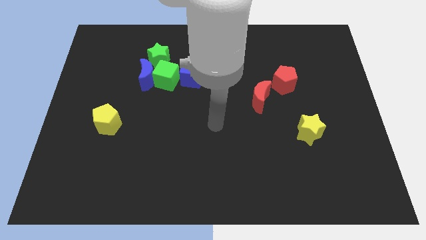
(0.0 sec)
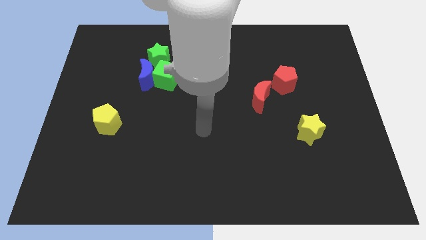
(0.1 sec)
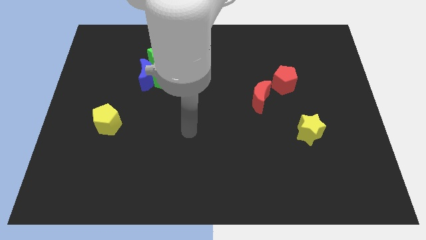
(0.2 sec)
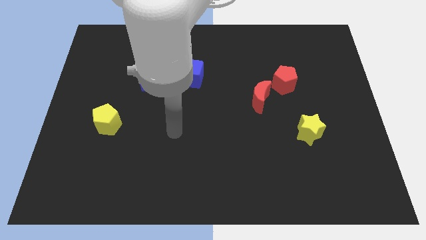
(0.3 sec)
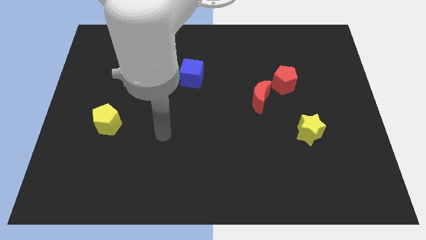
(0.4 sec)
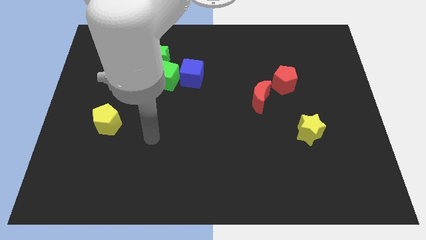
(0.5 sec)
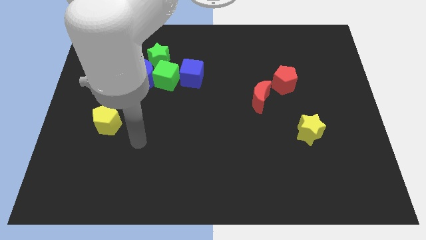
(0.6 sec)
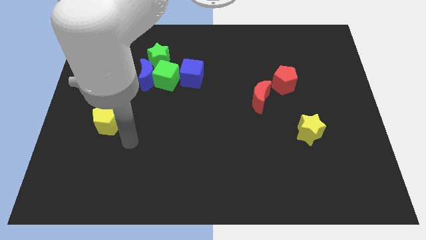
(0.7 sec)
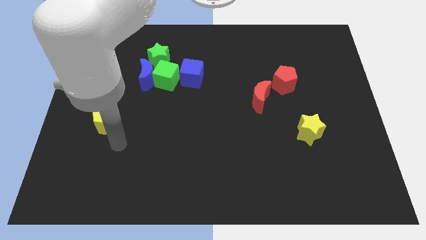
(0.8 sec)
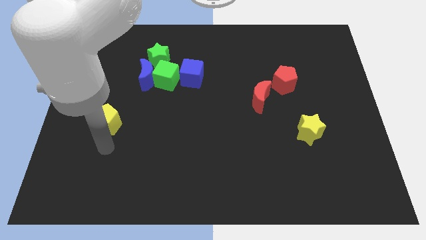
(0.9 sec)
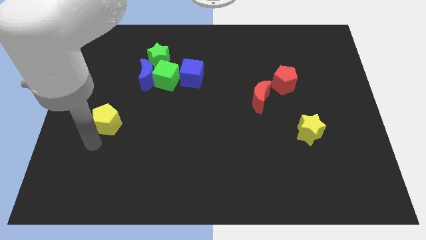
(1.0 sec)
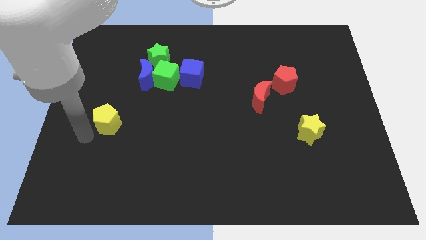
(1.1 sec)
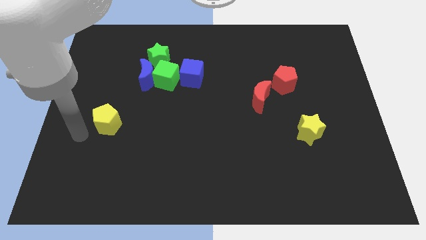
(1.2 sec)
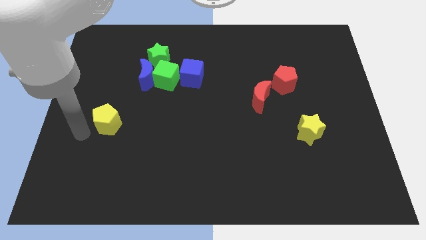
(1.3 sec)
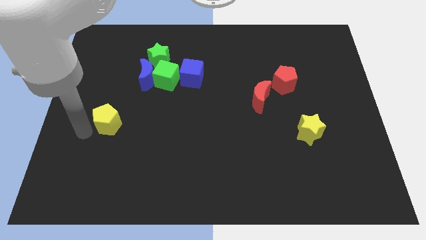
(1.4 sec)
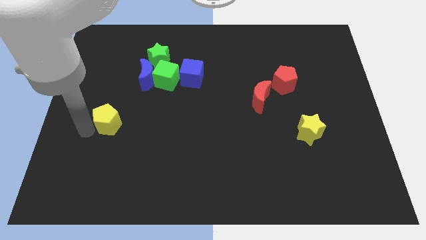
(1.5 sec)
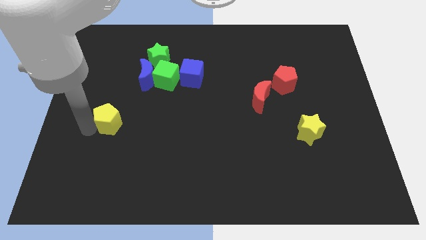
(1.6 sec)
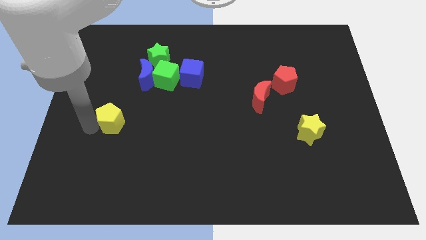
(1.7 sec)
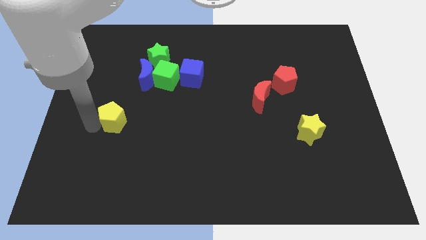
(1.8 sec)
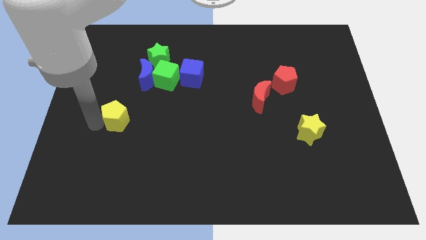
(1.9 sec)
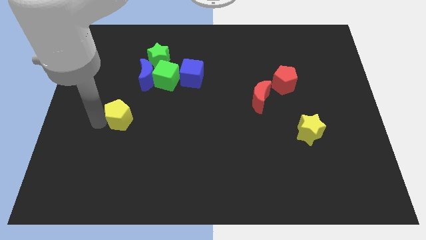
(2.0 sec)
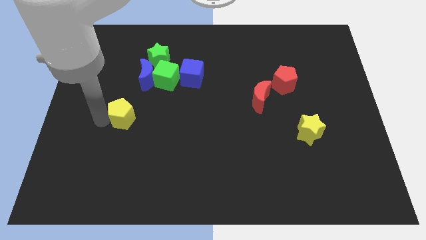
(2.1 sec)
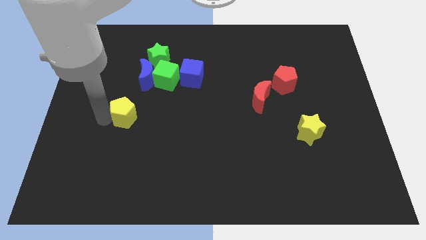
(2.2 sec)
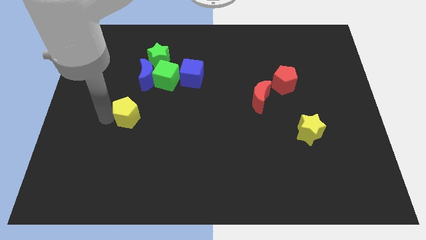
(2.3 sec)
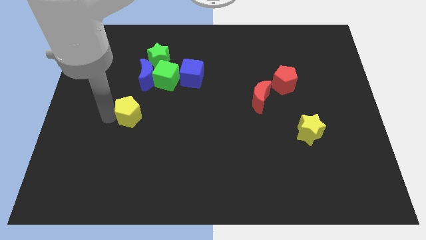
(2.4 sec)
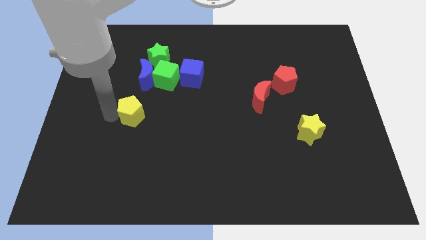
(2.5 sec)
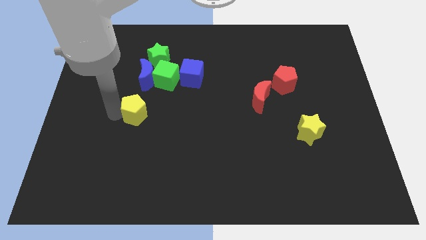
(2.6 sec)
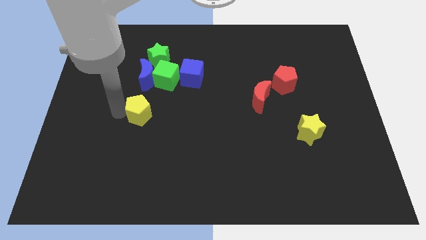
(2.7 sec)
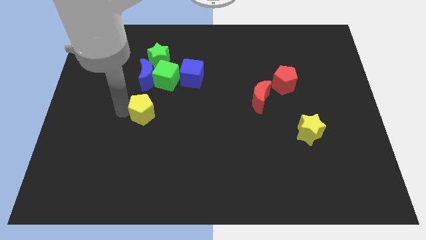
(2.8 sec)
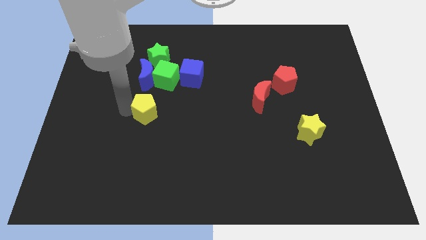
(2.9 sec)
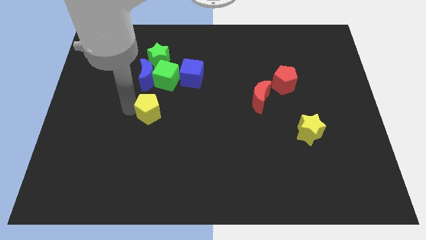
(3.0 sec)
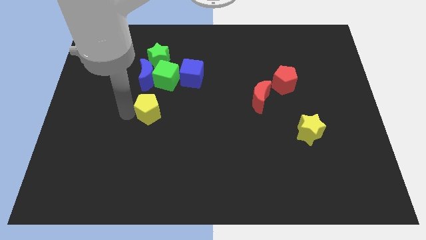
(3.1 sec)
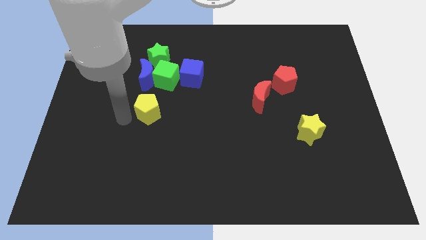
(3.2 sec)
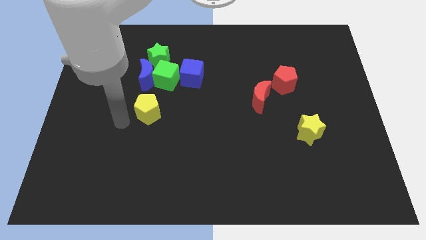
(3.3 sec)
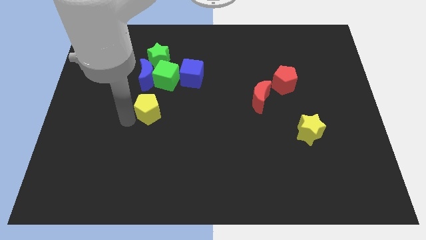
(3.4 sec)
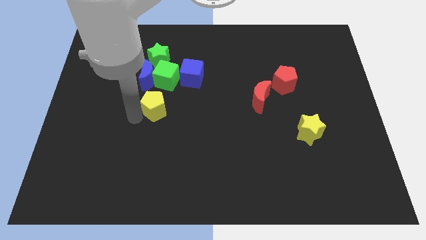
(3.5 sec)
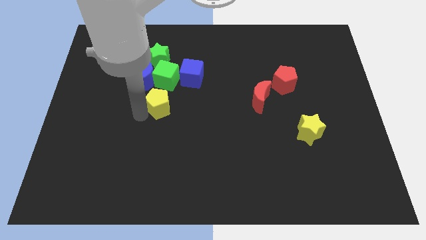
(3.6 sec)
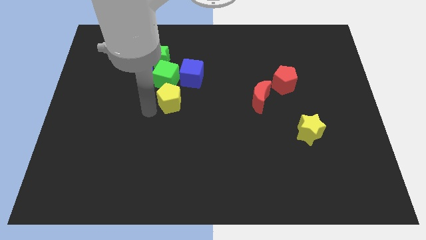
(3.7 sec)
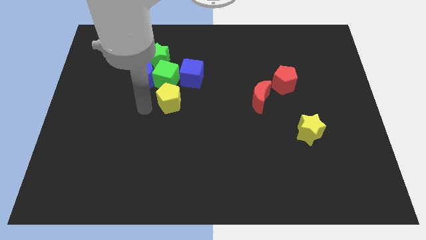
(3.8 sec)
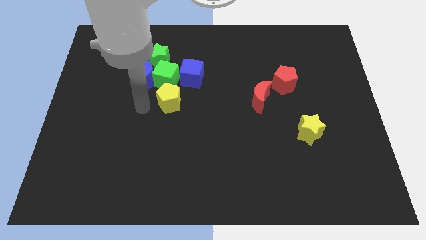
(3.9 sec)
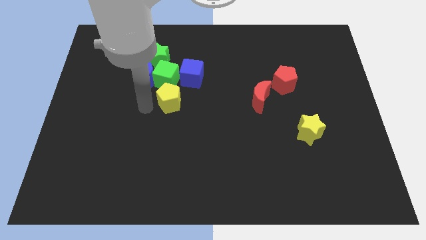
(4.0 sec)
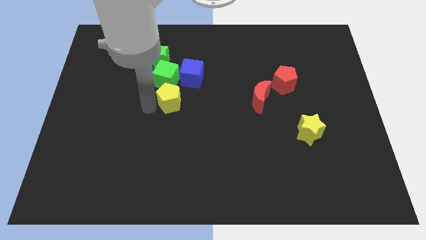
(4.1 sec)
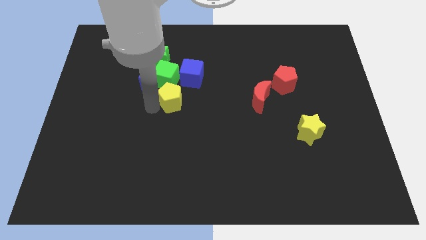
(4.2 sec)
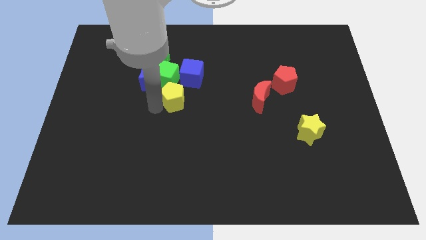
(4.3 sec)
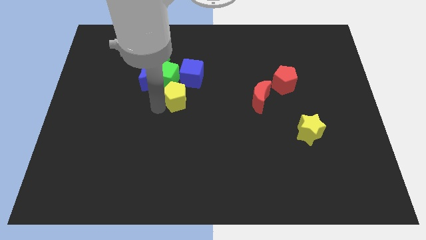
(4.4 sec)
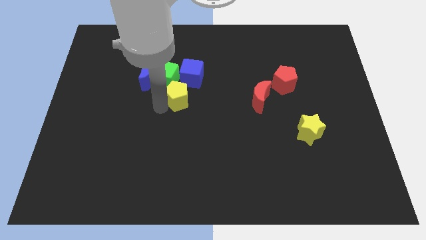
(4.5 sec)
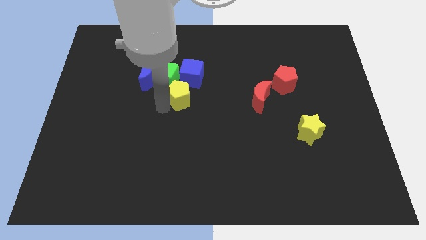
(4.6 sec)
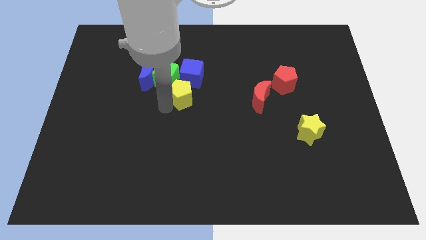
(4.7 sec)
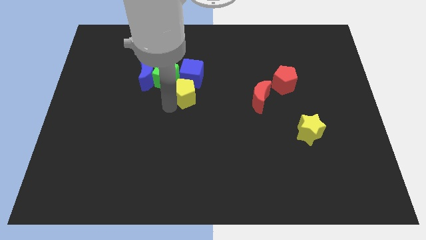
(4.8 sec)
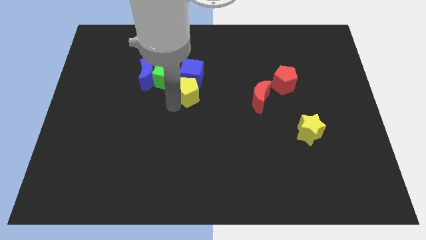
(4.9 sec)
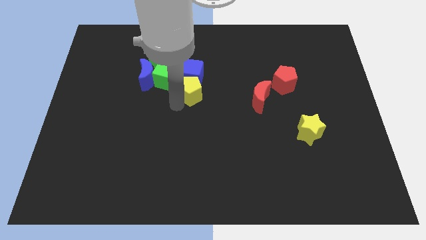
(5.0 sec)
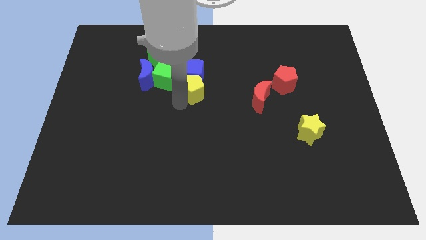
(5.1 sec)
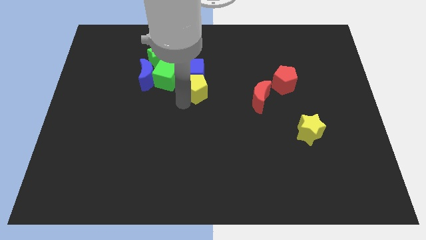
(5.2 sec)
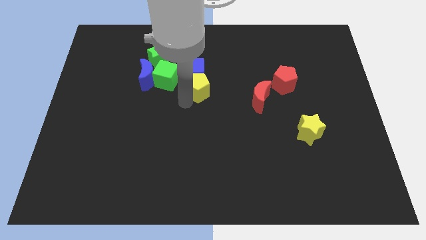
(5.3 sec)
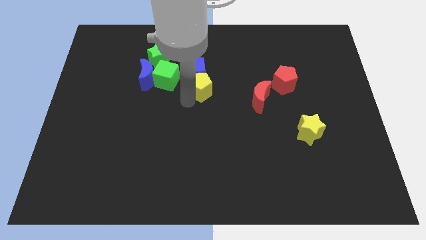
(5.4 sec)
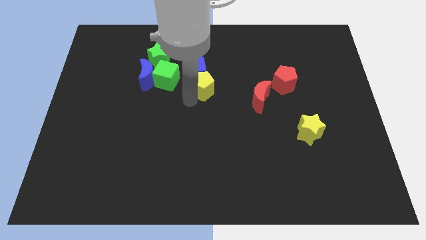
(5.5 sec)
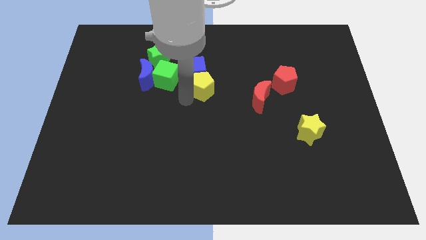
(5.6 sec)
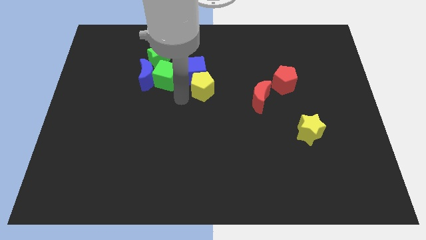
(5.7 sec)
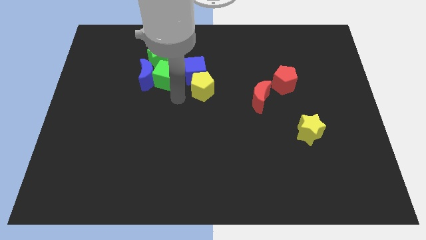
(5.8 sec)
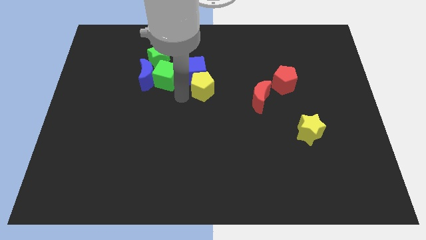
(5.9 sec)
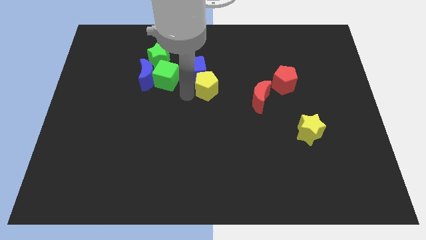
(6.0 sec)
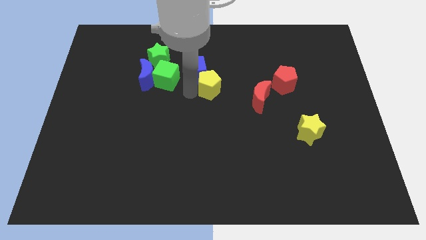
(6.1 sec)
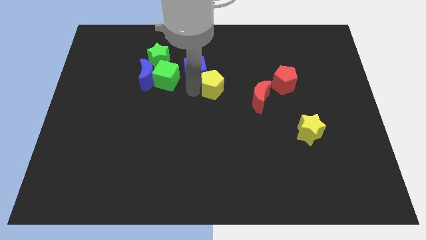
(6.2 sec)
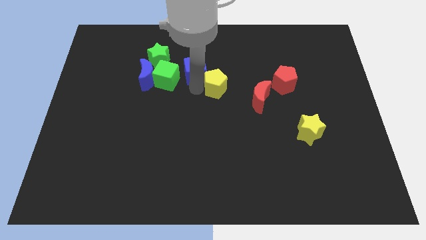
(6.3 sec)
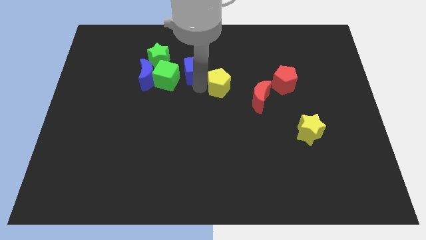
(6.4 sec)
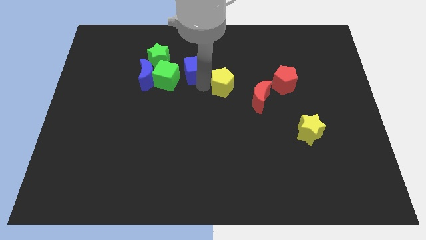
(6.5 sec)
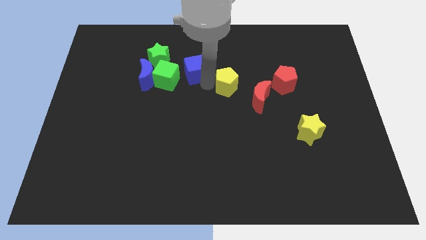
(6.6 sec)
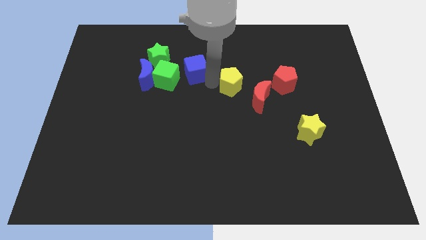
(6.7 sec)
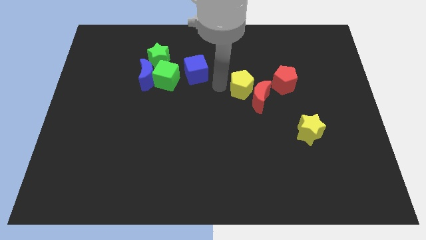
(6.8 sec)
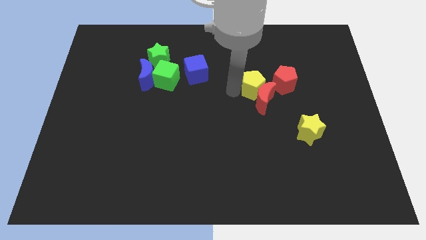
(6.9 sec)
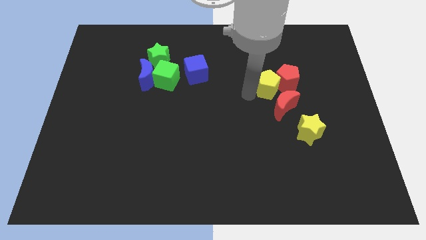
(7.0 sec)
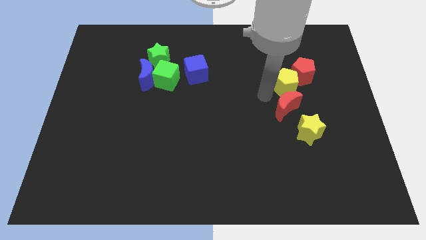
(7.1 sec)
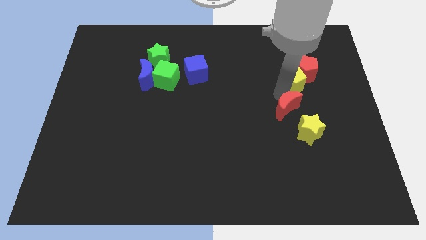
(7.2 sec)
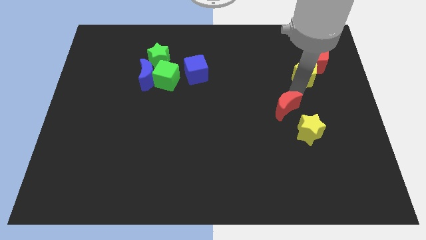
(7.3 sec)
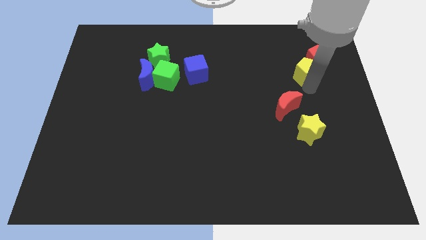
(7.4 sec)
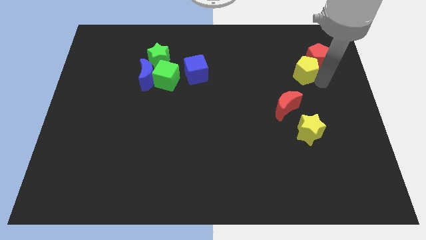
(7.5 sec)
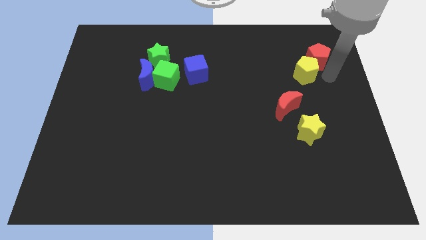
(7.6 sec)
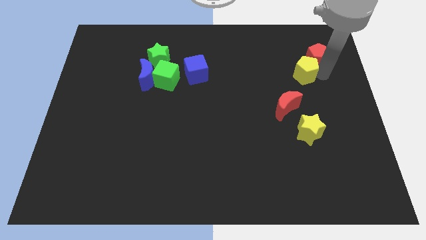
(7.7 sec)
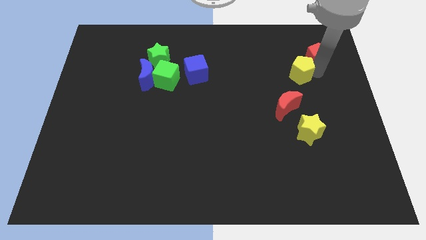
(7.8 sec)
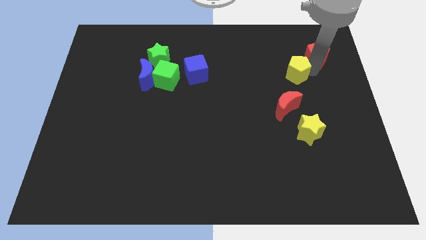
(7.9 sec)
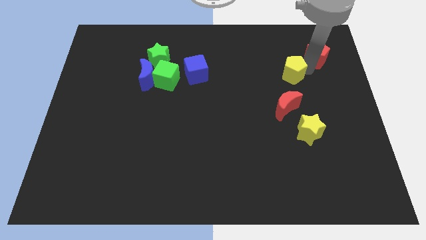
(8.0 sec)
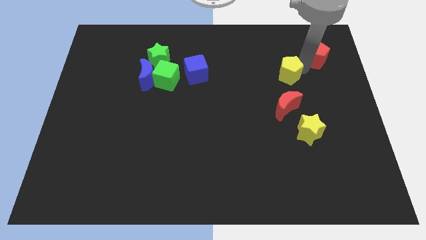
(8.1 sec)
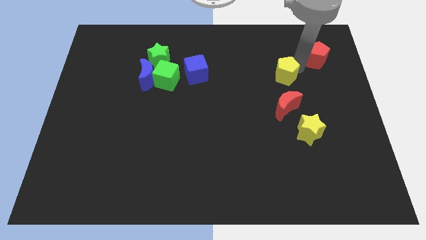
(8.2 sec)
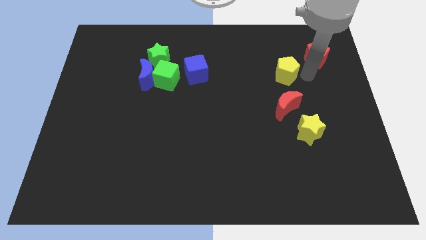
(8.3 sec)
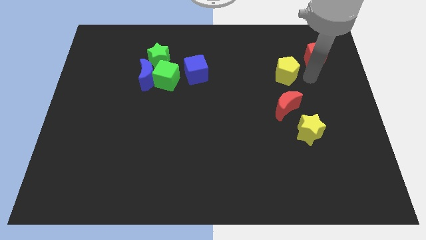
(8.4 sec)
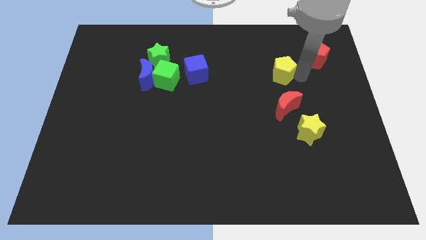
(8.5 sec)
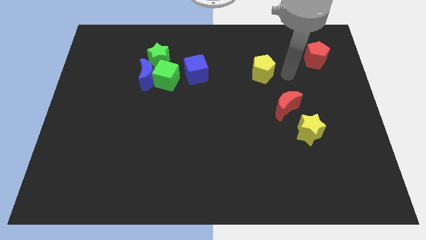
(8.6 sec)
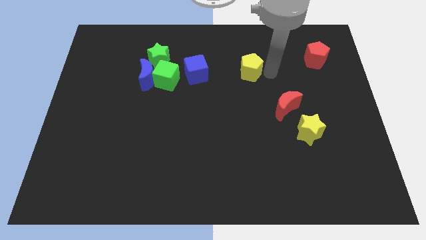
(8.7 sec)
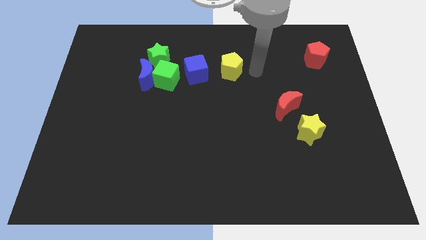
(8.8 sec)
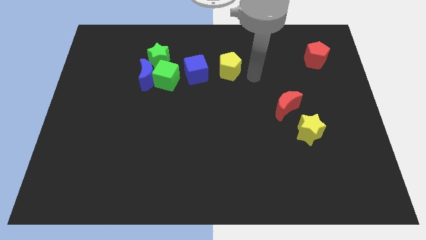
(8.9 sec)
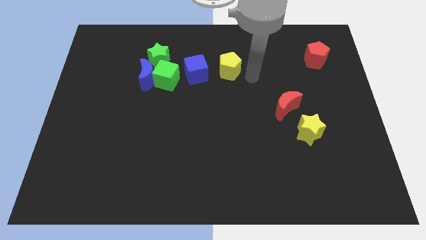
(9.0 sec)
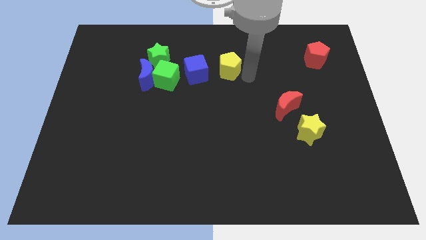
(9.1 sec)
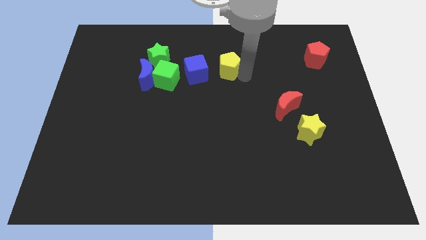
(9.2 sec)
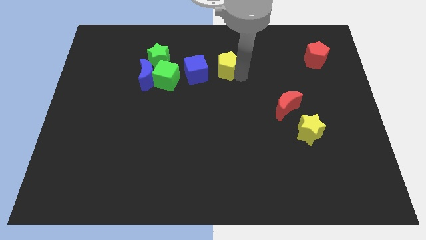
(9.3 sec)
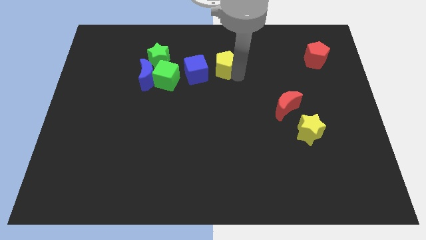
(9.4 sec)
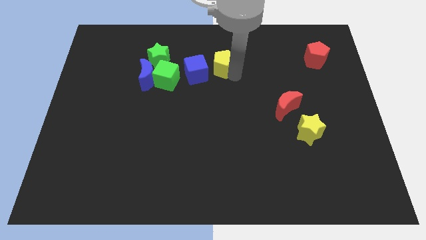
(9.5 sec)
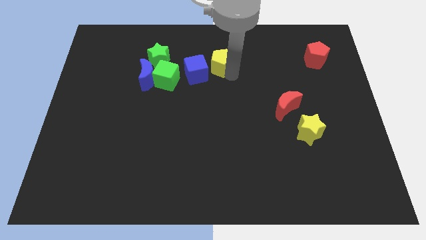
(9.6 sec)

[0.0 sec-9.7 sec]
put the yellow pentagon right of the green star
